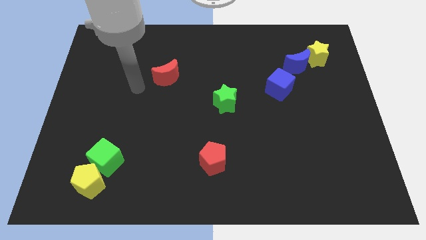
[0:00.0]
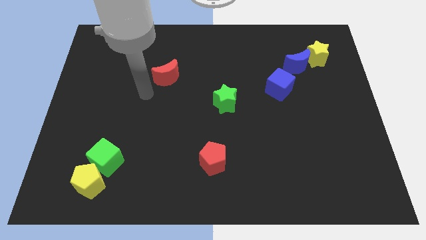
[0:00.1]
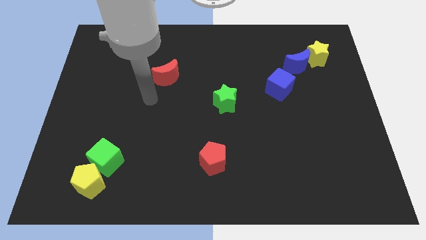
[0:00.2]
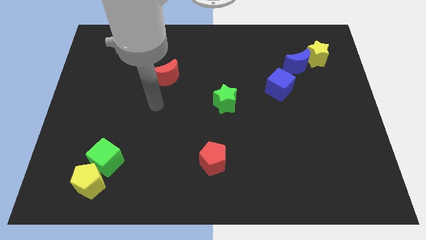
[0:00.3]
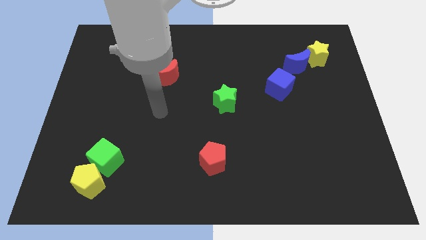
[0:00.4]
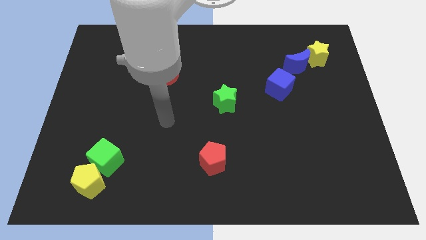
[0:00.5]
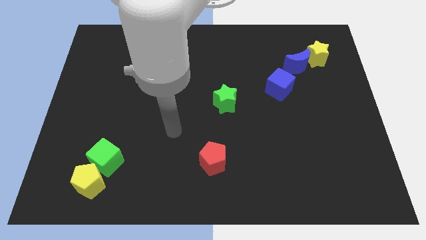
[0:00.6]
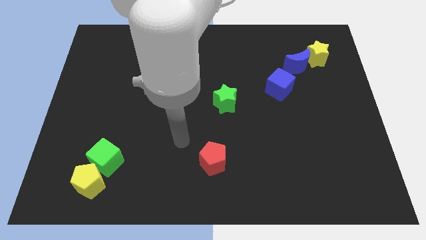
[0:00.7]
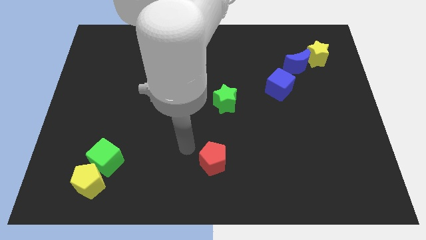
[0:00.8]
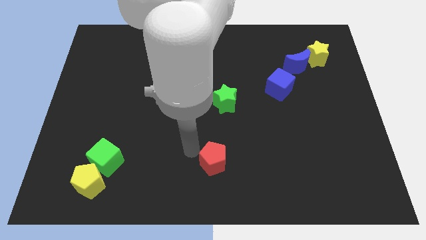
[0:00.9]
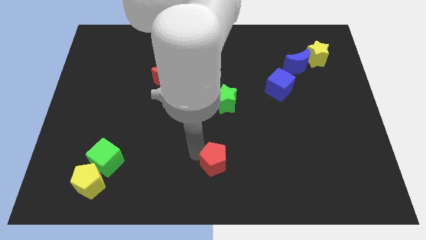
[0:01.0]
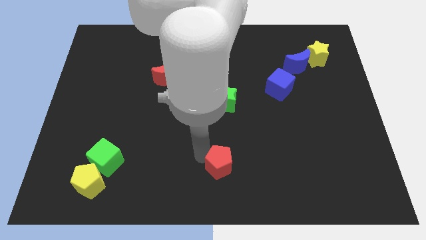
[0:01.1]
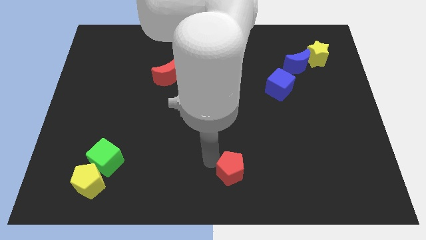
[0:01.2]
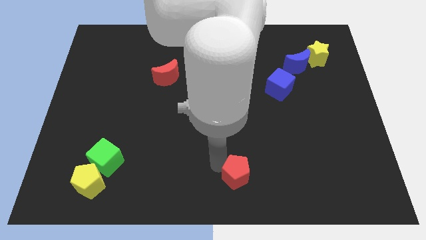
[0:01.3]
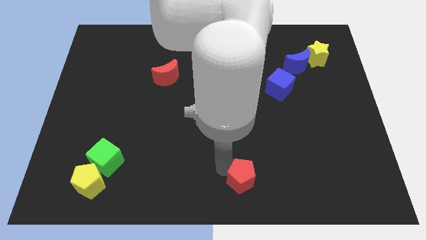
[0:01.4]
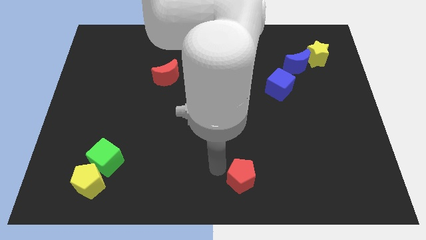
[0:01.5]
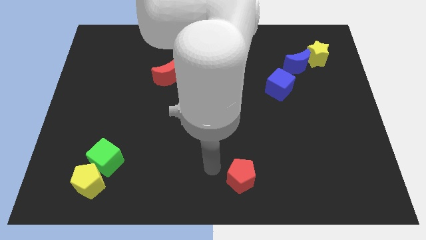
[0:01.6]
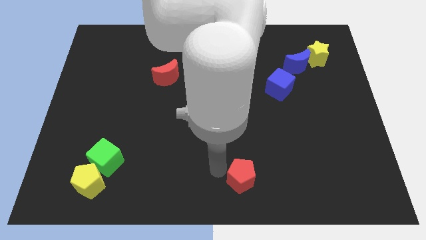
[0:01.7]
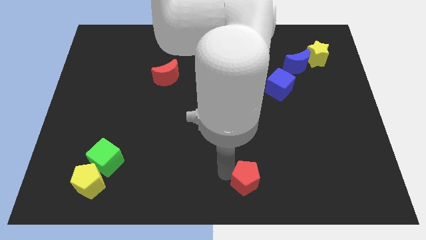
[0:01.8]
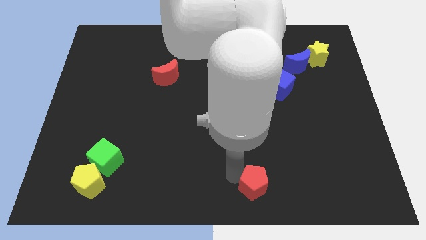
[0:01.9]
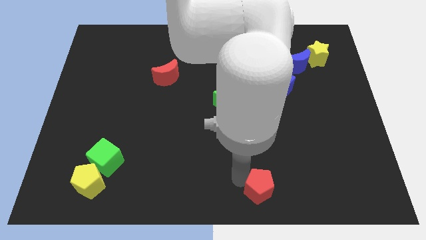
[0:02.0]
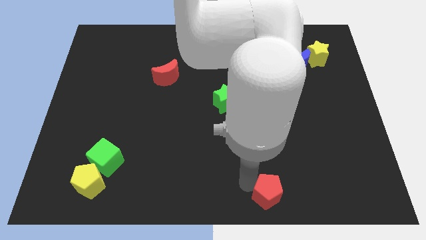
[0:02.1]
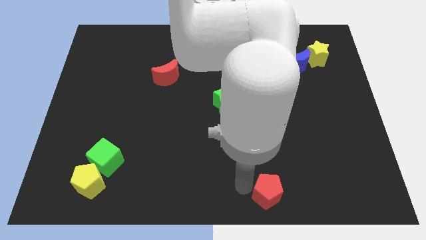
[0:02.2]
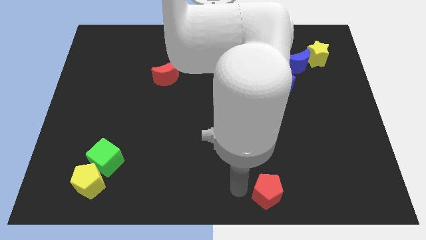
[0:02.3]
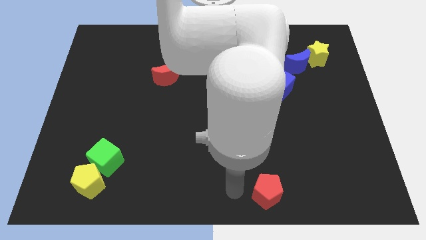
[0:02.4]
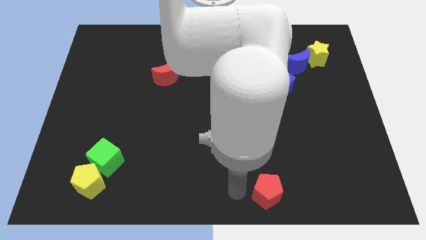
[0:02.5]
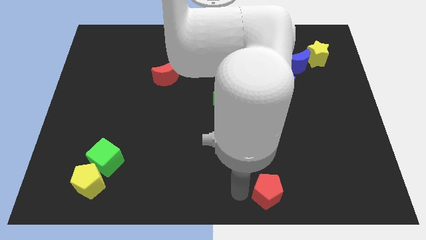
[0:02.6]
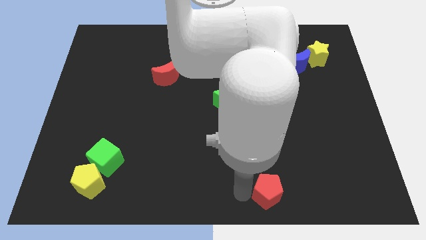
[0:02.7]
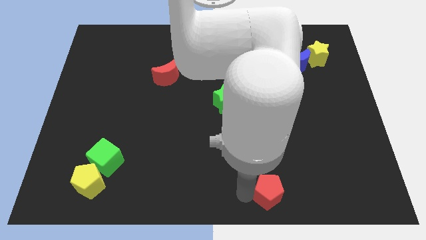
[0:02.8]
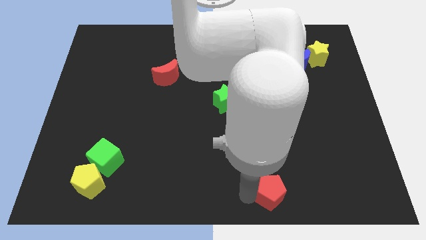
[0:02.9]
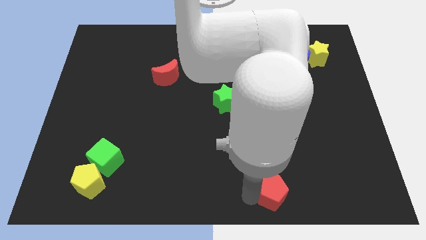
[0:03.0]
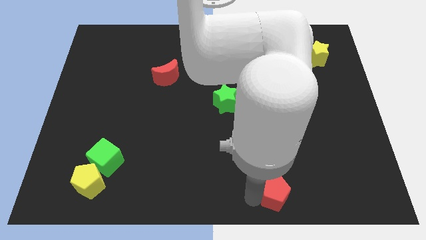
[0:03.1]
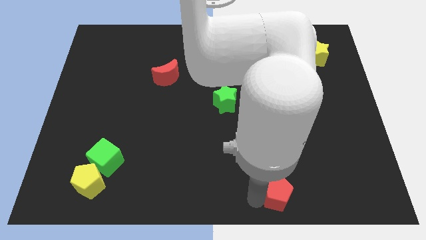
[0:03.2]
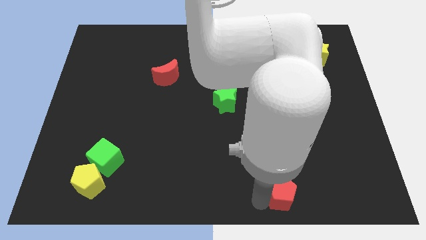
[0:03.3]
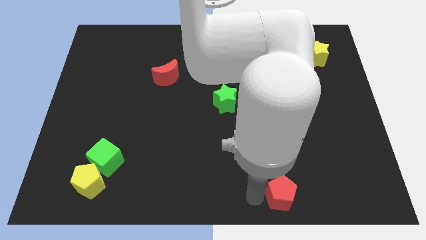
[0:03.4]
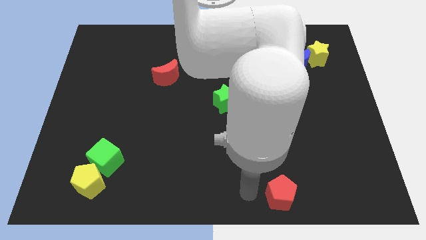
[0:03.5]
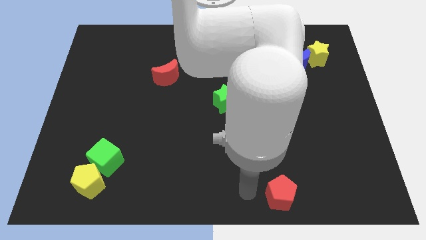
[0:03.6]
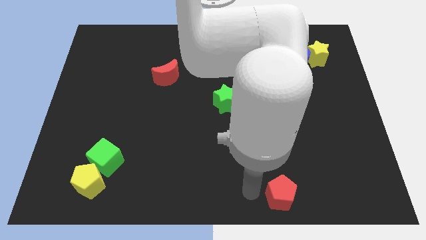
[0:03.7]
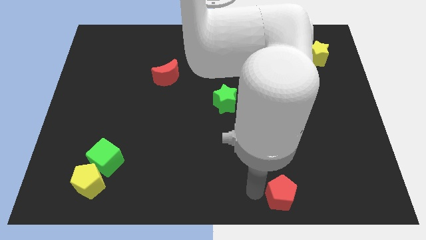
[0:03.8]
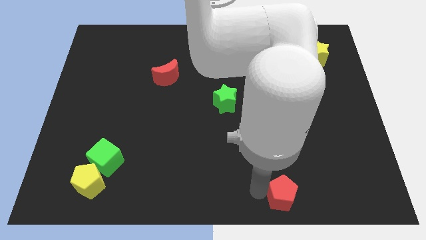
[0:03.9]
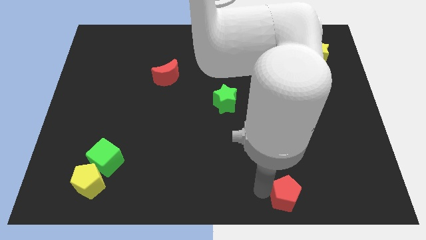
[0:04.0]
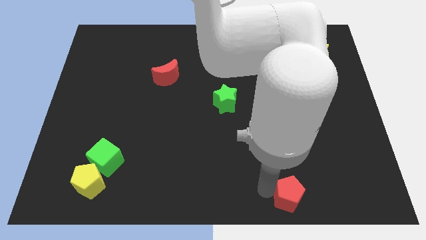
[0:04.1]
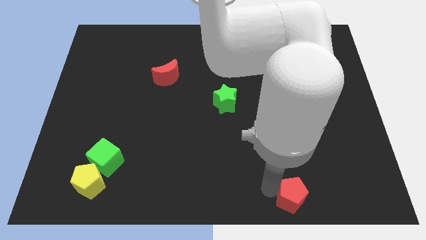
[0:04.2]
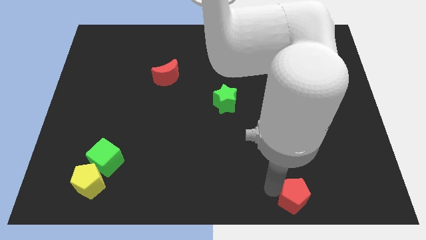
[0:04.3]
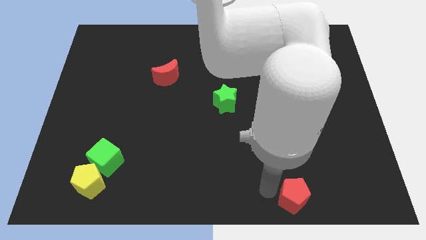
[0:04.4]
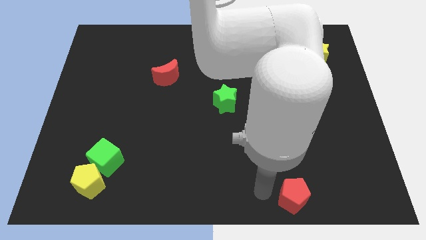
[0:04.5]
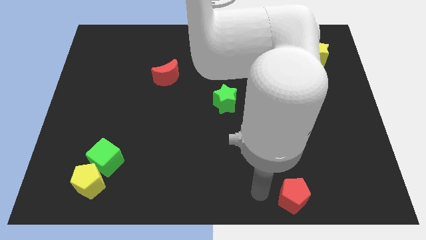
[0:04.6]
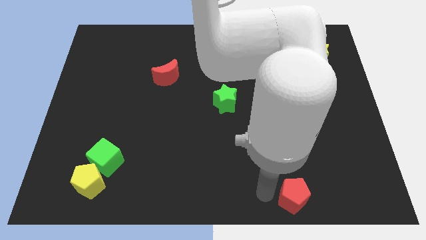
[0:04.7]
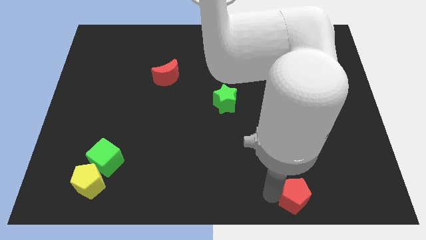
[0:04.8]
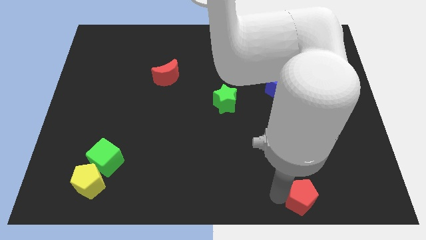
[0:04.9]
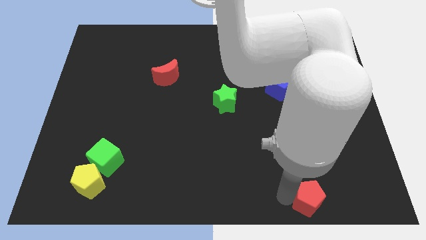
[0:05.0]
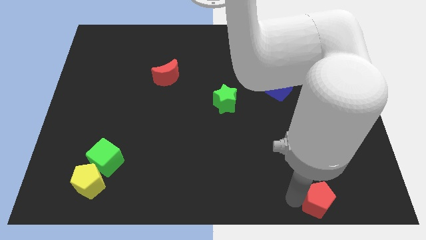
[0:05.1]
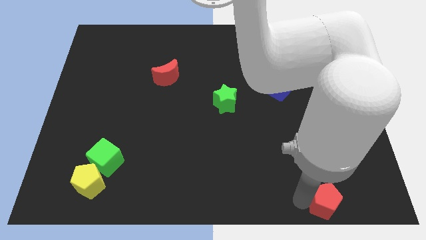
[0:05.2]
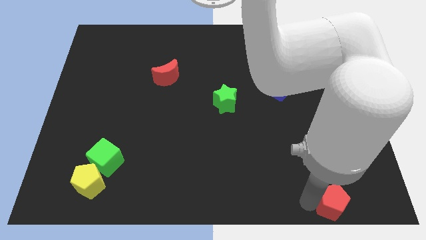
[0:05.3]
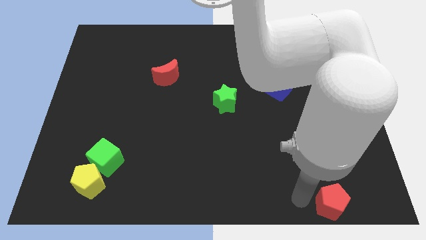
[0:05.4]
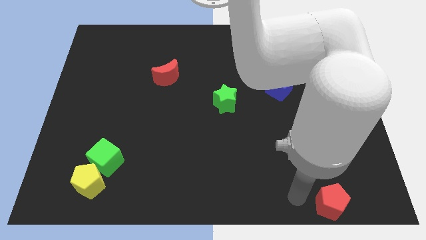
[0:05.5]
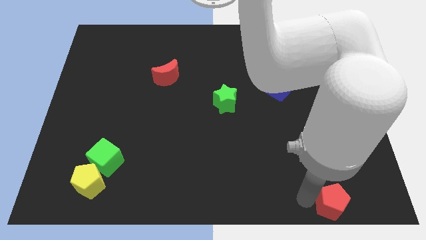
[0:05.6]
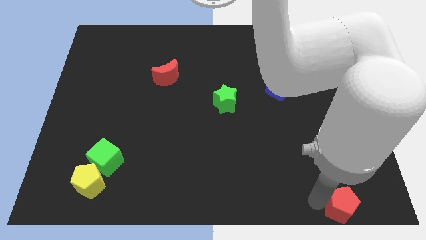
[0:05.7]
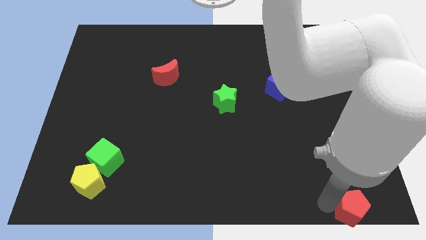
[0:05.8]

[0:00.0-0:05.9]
push the red pentagon to the bottom right

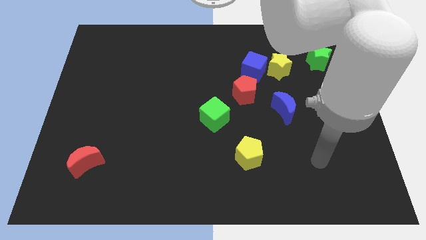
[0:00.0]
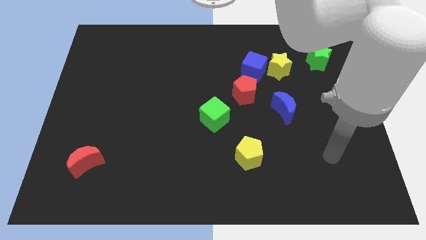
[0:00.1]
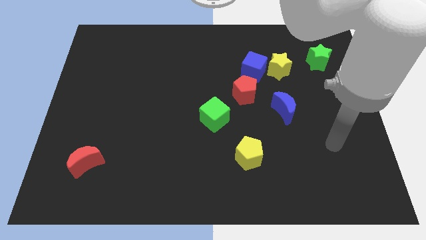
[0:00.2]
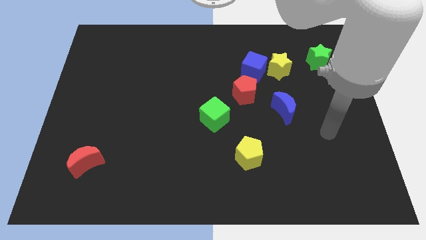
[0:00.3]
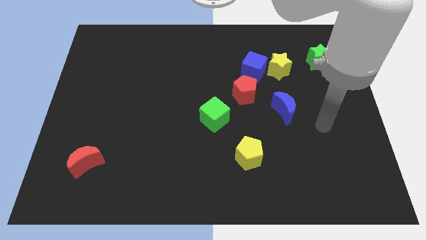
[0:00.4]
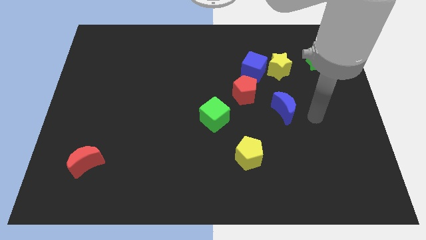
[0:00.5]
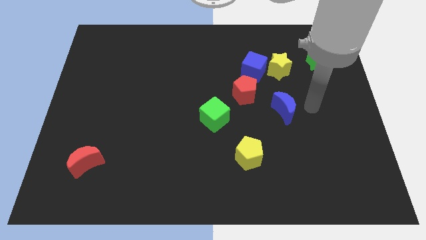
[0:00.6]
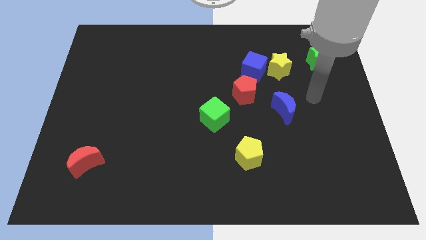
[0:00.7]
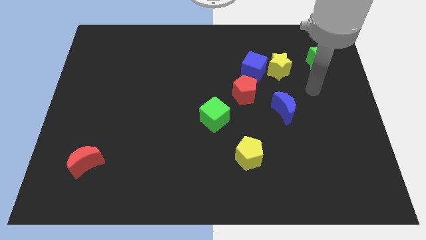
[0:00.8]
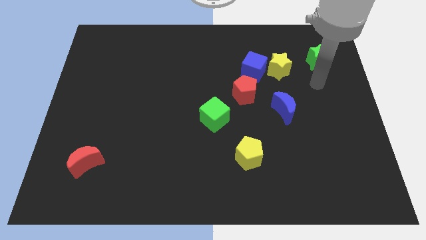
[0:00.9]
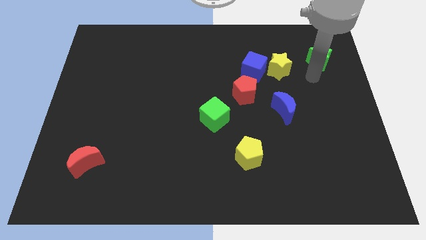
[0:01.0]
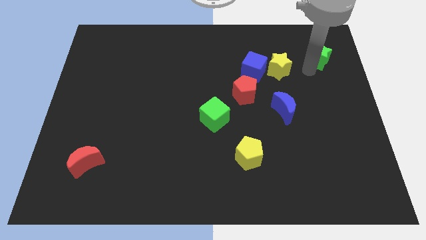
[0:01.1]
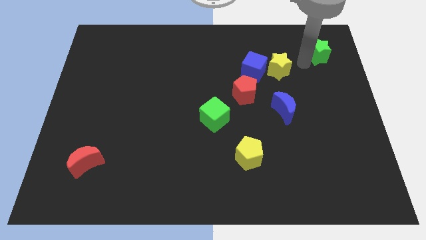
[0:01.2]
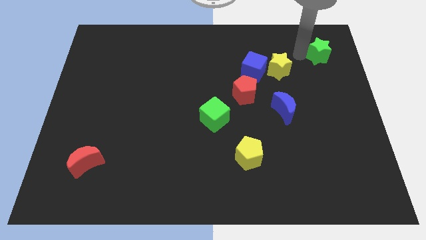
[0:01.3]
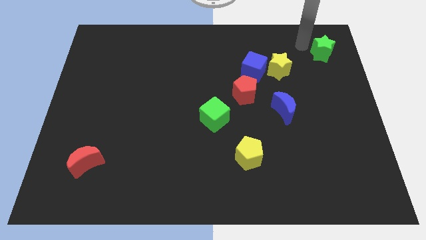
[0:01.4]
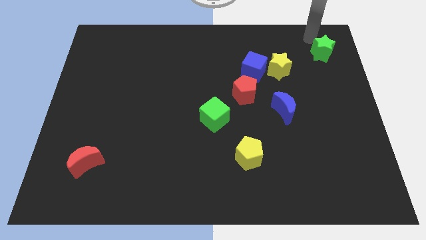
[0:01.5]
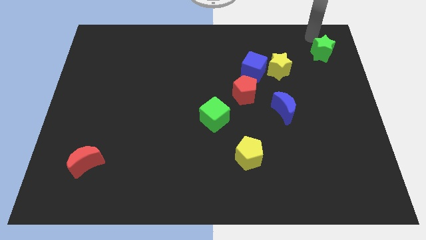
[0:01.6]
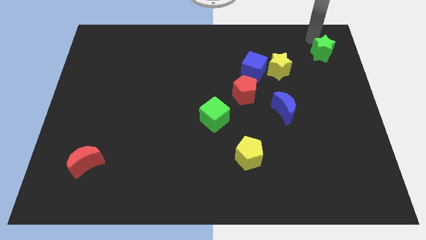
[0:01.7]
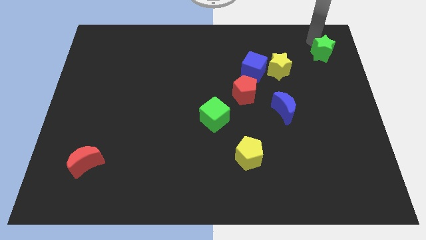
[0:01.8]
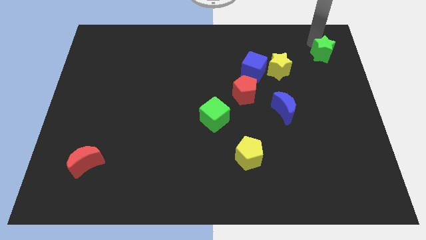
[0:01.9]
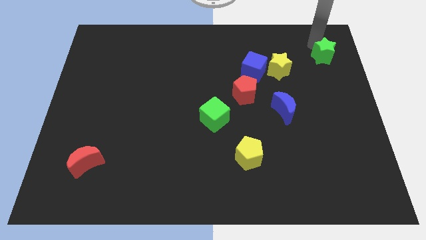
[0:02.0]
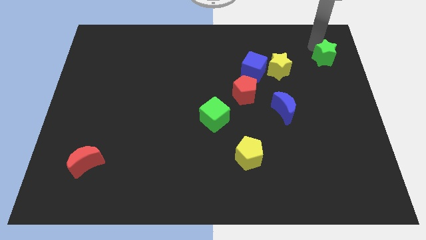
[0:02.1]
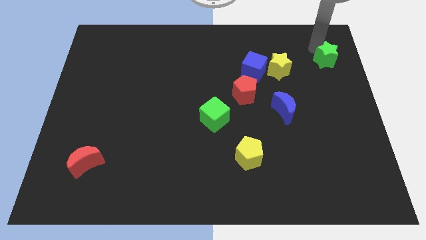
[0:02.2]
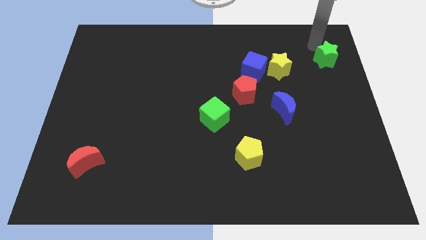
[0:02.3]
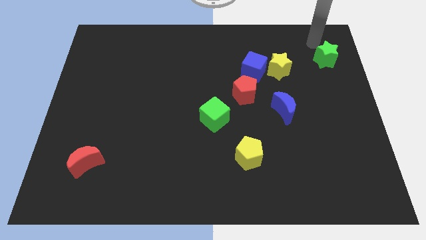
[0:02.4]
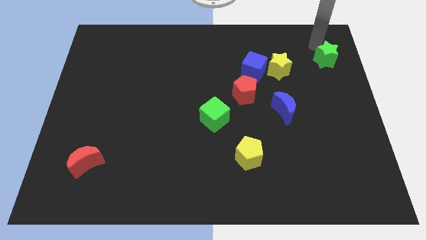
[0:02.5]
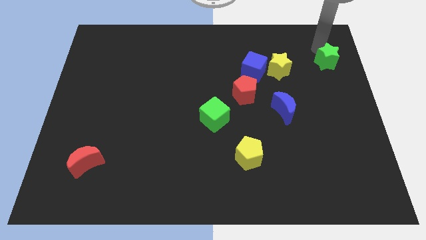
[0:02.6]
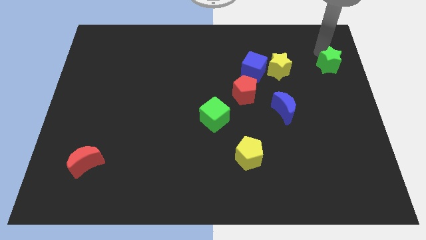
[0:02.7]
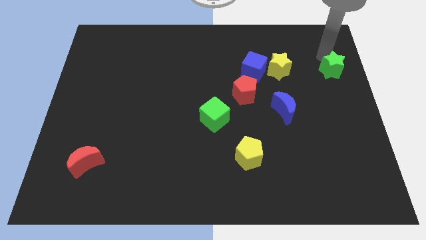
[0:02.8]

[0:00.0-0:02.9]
put the green star to the center right
